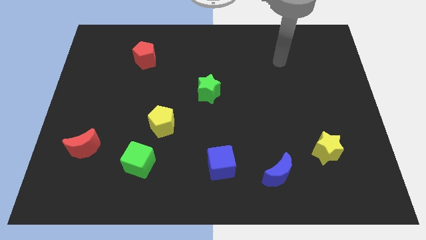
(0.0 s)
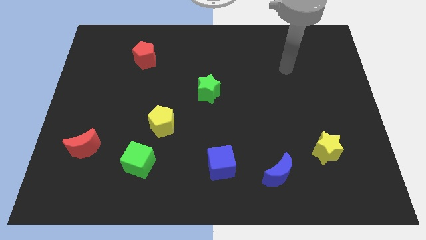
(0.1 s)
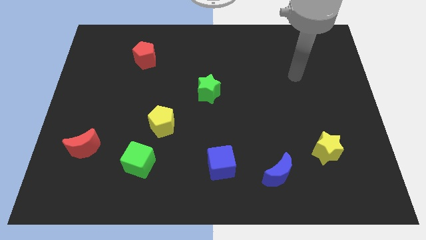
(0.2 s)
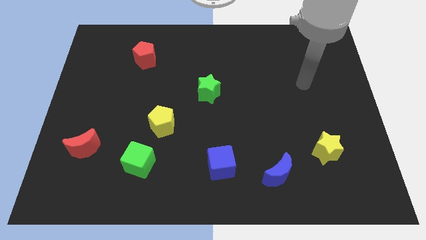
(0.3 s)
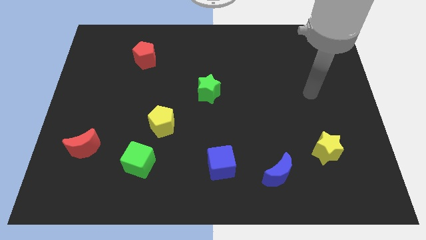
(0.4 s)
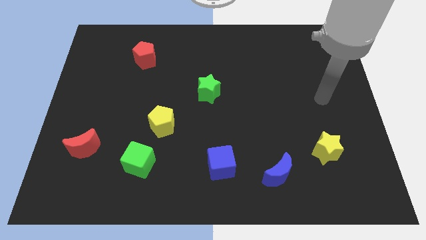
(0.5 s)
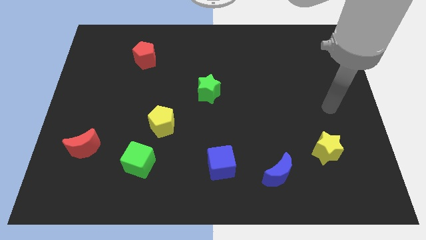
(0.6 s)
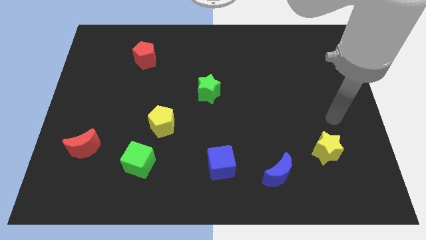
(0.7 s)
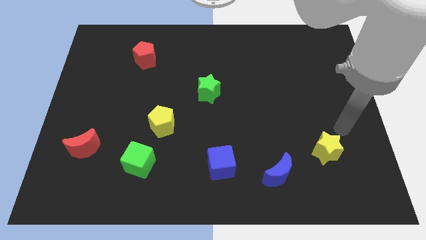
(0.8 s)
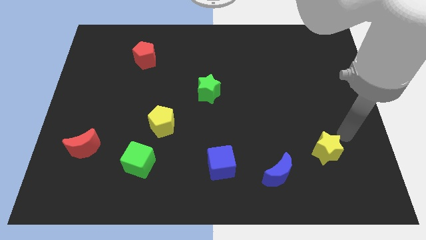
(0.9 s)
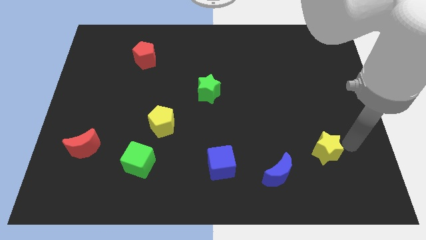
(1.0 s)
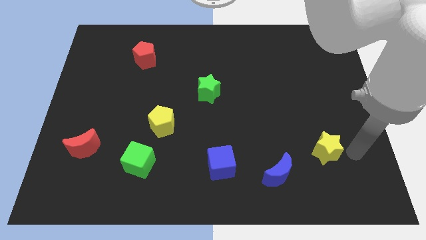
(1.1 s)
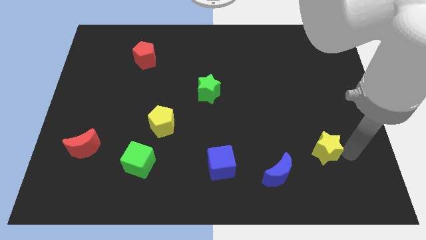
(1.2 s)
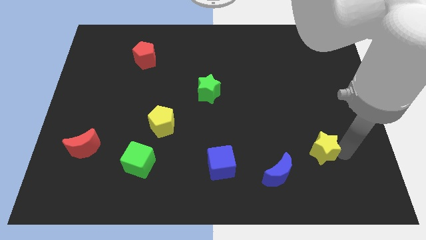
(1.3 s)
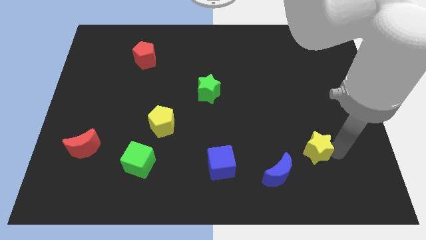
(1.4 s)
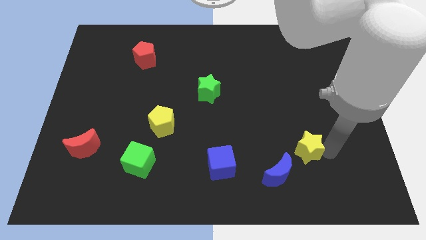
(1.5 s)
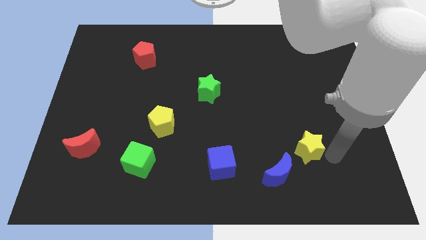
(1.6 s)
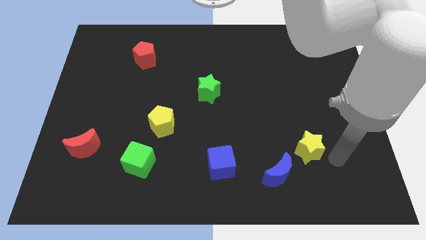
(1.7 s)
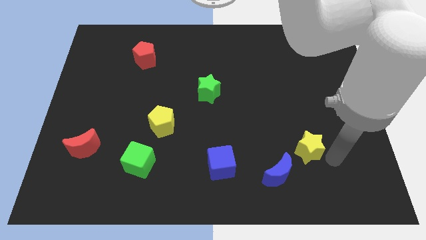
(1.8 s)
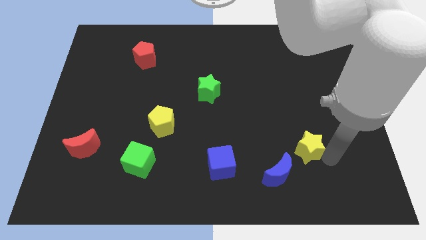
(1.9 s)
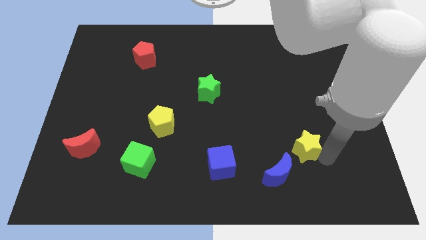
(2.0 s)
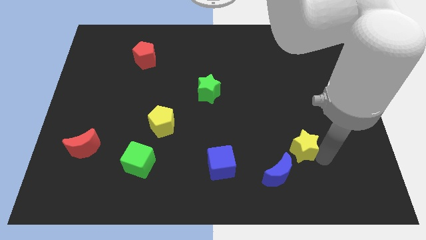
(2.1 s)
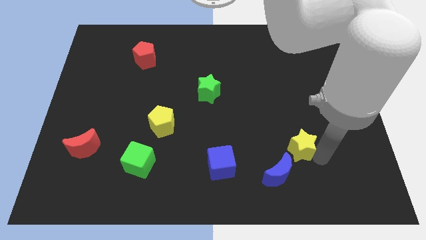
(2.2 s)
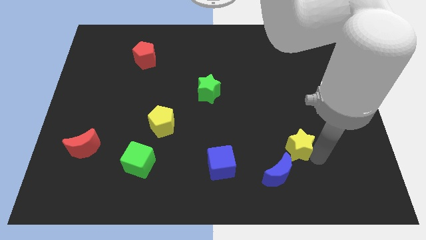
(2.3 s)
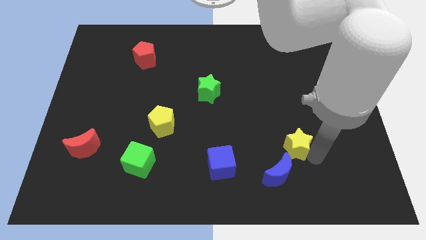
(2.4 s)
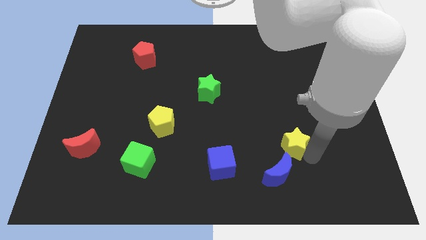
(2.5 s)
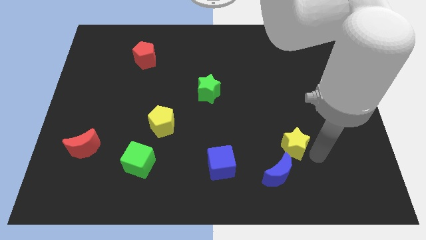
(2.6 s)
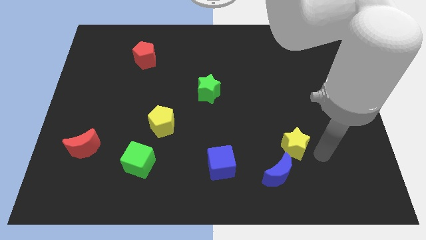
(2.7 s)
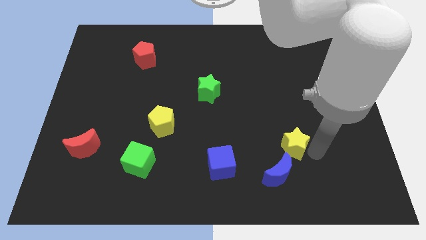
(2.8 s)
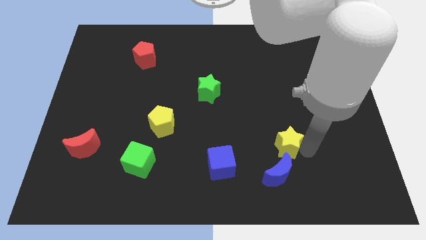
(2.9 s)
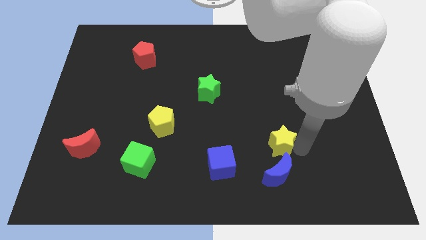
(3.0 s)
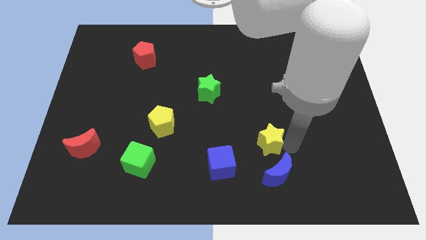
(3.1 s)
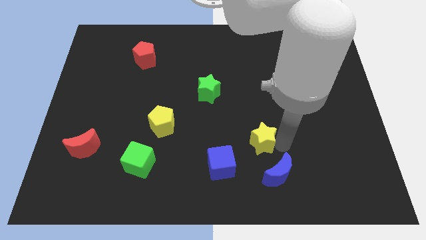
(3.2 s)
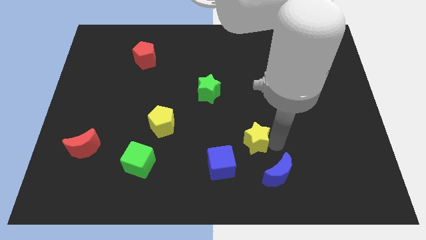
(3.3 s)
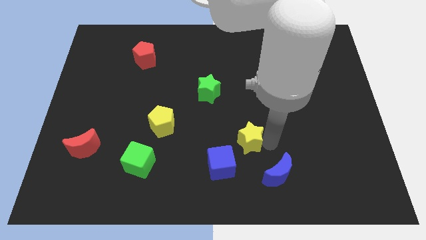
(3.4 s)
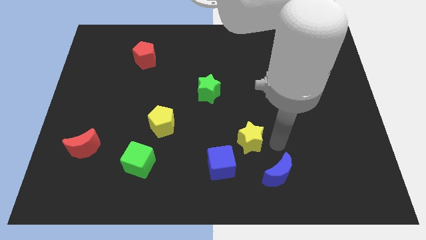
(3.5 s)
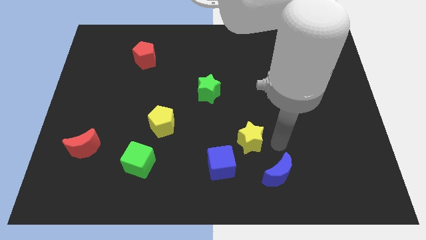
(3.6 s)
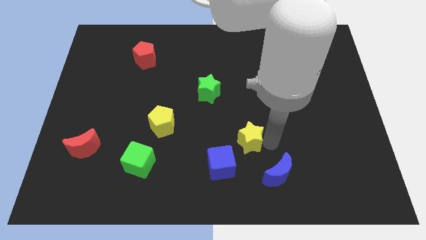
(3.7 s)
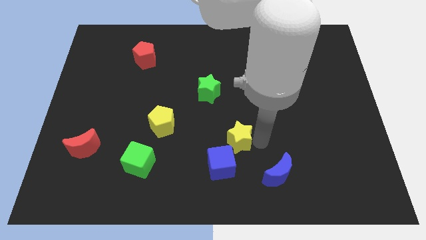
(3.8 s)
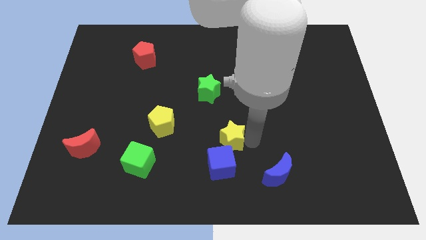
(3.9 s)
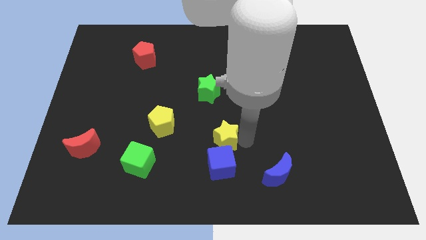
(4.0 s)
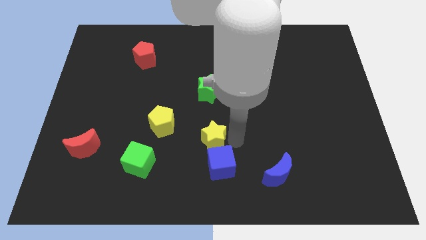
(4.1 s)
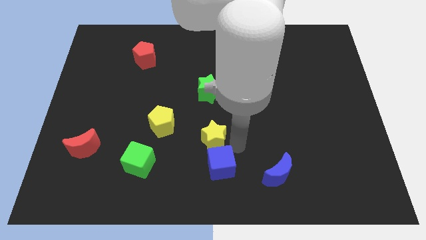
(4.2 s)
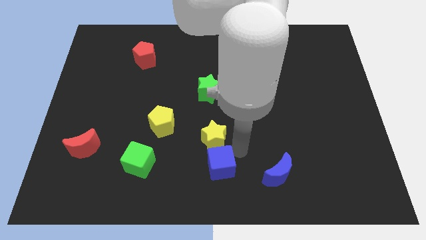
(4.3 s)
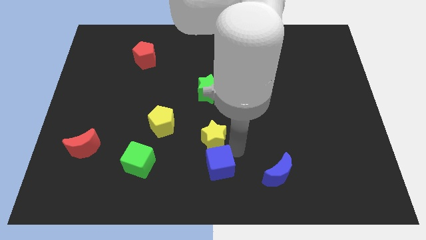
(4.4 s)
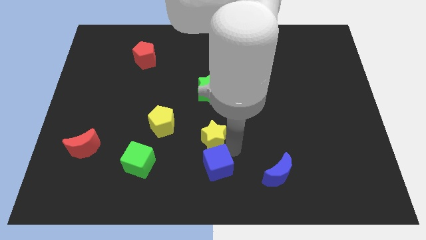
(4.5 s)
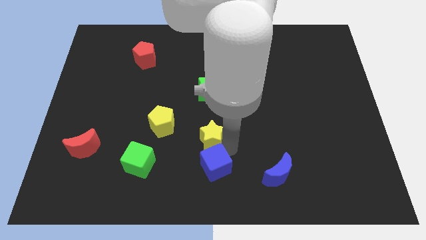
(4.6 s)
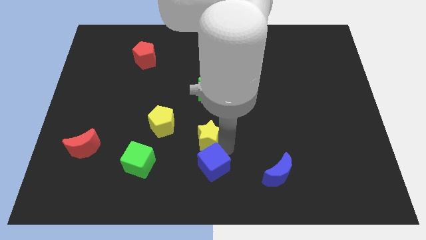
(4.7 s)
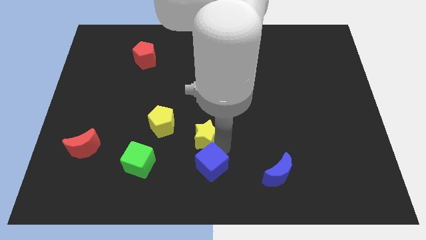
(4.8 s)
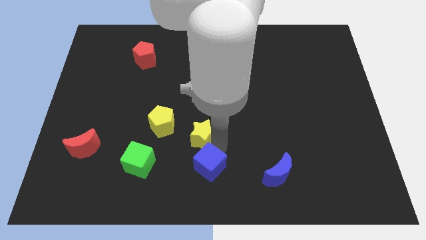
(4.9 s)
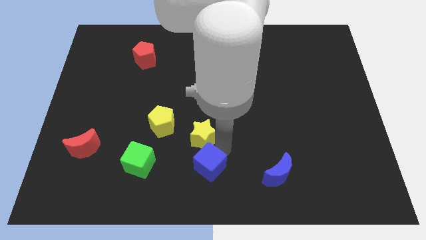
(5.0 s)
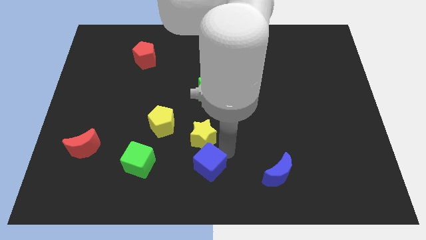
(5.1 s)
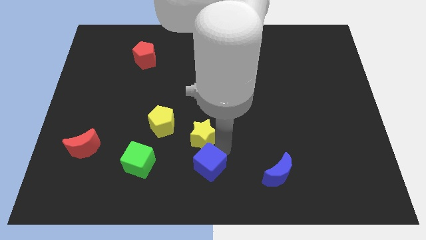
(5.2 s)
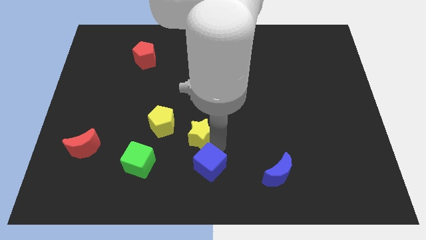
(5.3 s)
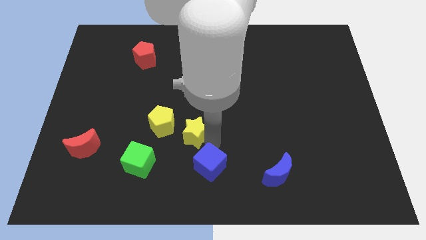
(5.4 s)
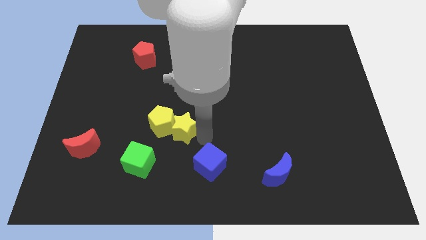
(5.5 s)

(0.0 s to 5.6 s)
move the yellow star towards the yellow pentagon

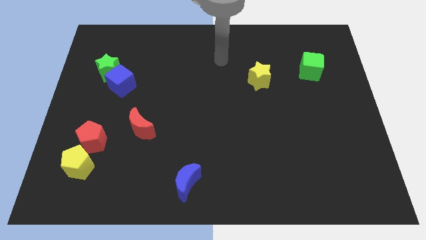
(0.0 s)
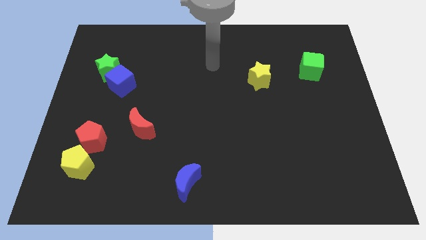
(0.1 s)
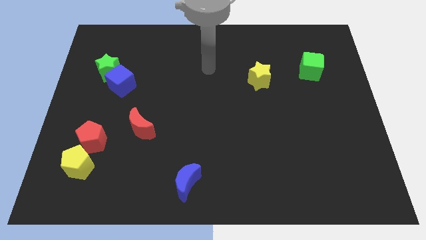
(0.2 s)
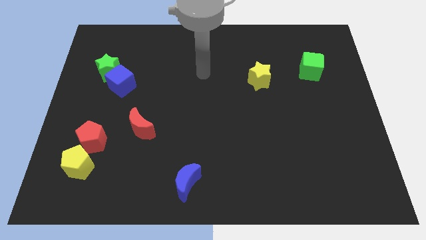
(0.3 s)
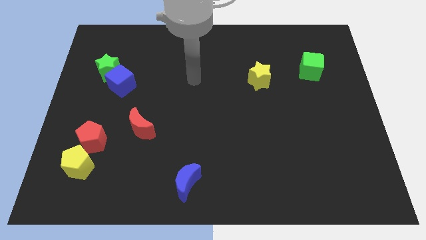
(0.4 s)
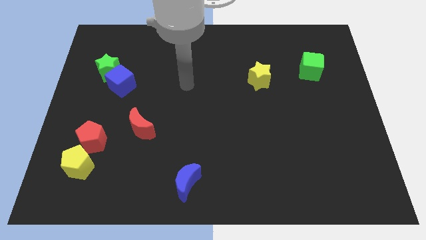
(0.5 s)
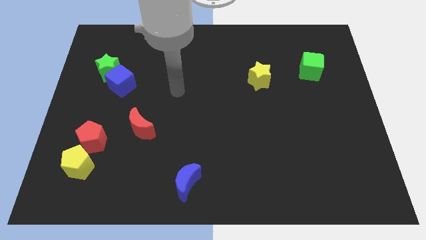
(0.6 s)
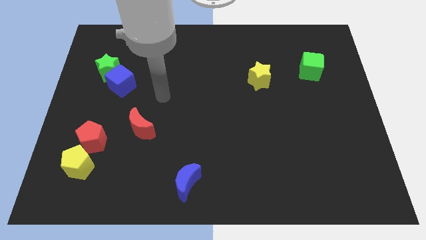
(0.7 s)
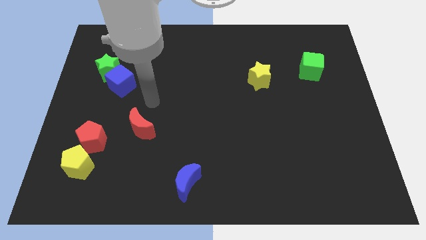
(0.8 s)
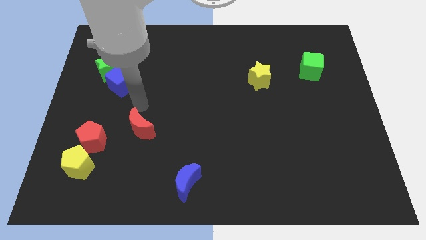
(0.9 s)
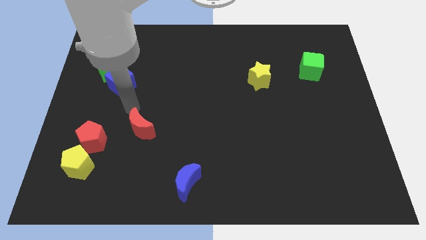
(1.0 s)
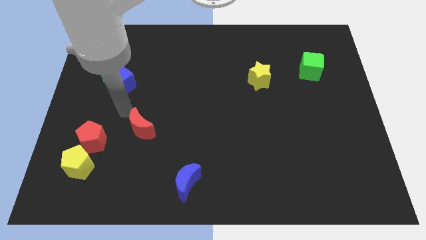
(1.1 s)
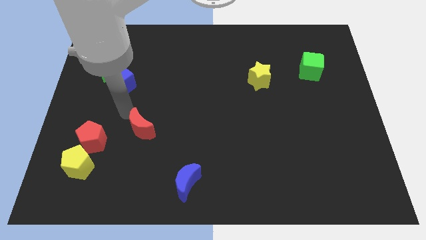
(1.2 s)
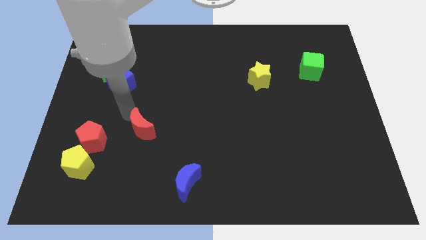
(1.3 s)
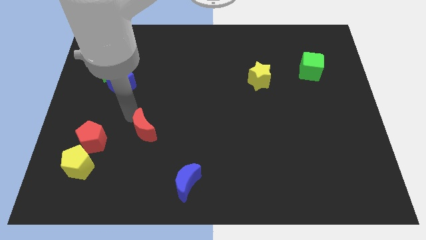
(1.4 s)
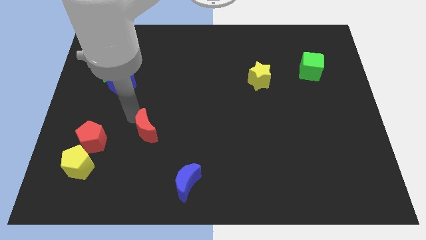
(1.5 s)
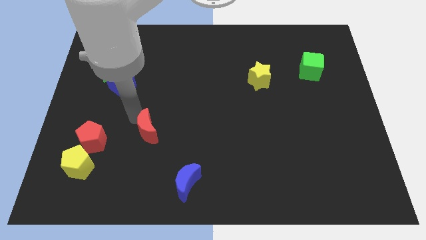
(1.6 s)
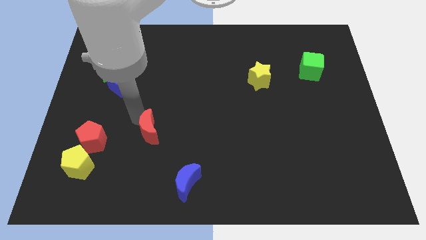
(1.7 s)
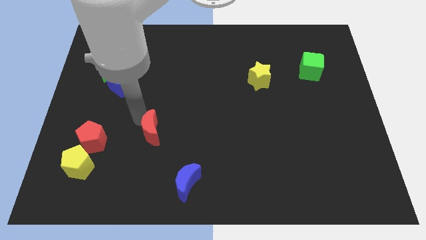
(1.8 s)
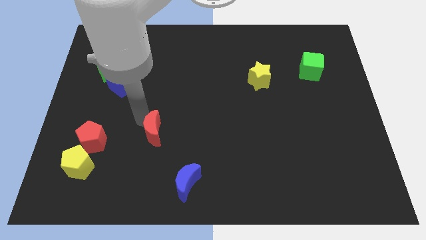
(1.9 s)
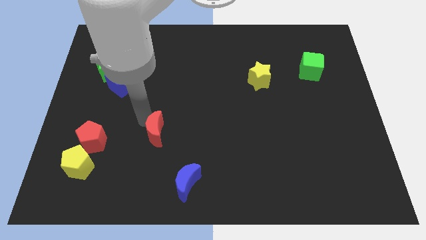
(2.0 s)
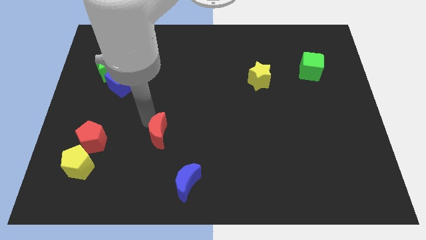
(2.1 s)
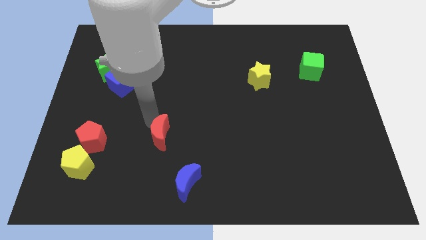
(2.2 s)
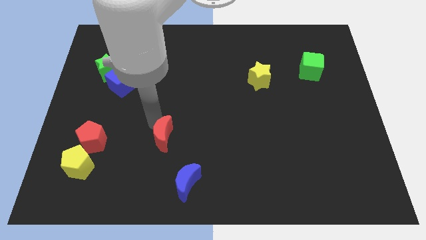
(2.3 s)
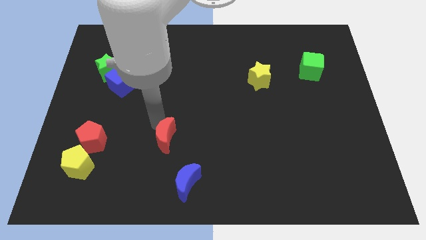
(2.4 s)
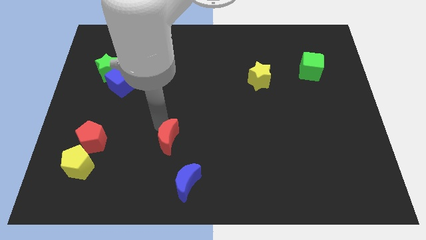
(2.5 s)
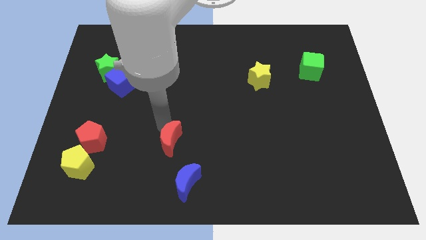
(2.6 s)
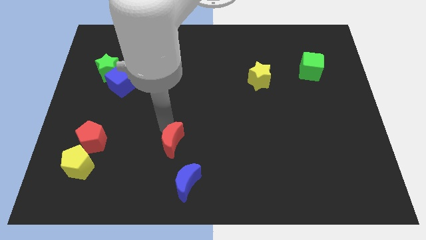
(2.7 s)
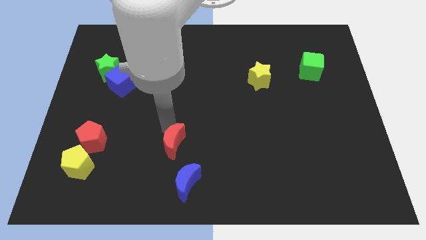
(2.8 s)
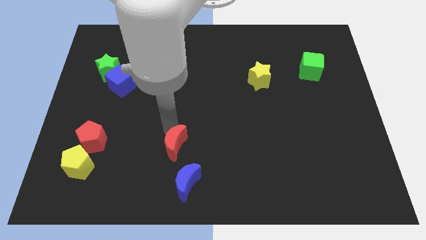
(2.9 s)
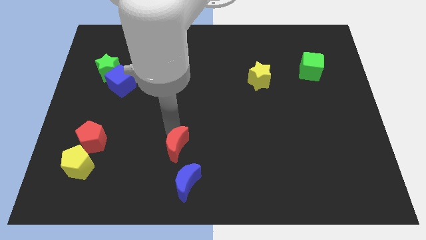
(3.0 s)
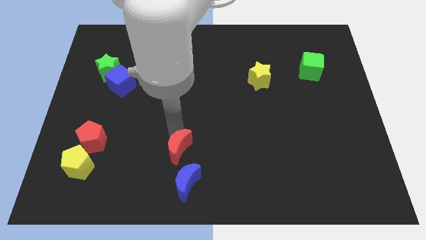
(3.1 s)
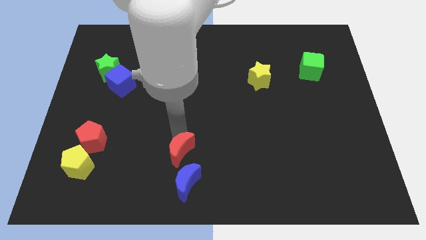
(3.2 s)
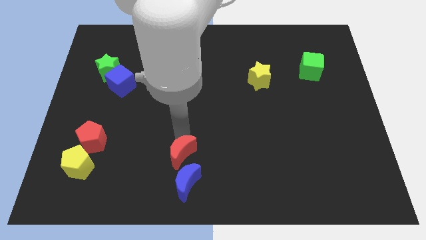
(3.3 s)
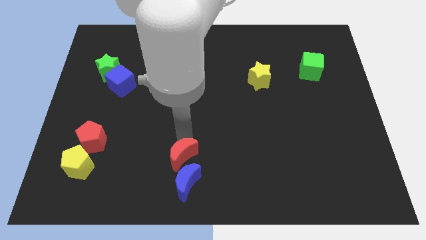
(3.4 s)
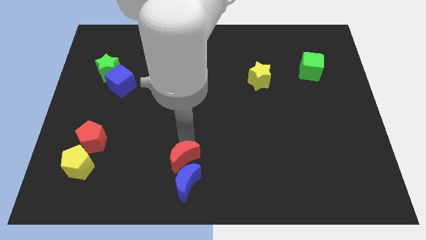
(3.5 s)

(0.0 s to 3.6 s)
move the red moon to the blue moon
